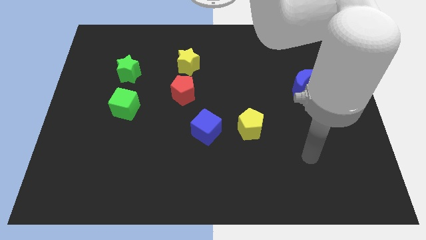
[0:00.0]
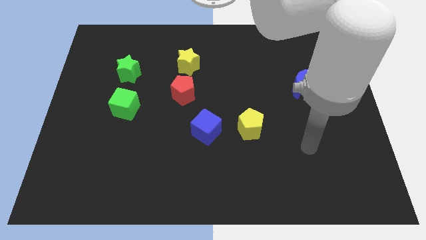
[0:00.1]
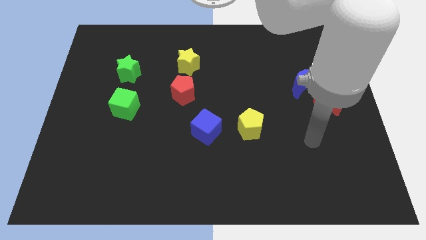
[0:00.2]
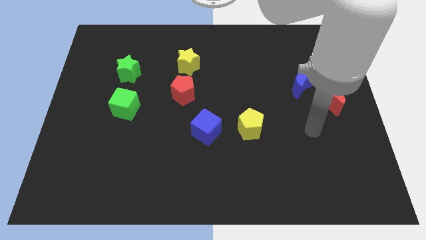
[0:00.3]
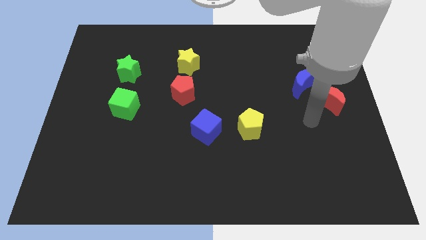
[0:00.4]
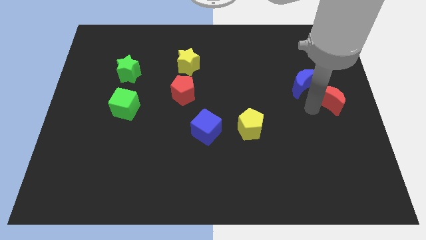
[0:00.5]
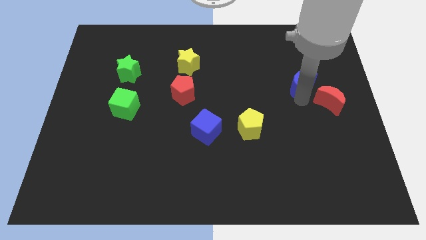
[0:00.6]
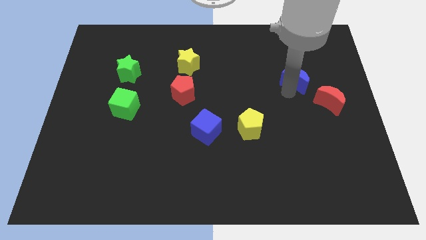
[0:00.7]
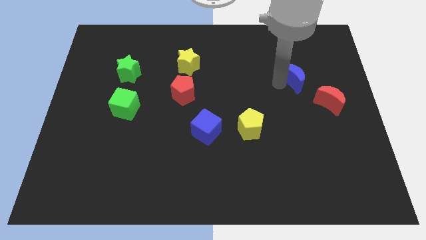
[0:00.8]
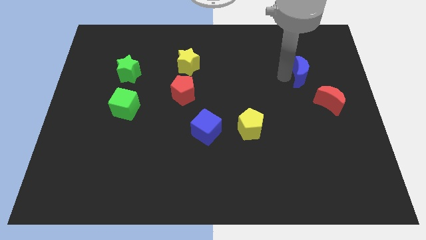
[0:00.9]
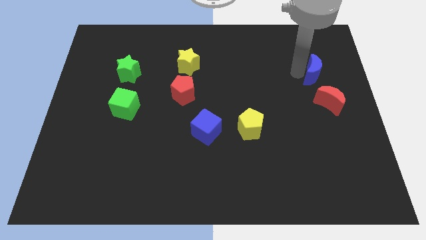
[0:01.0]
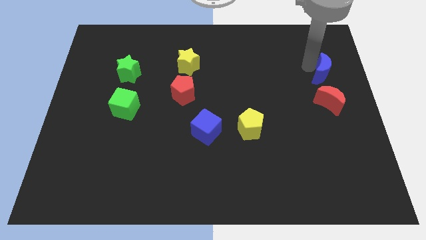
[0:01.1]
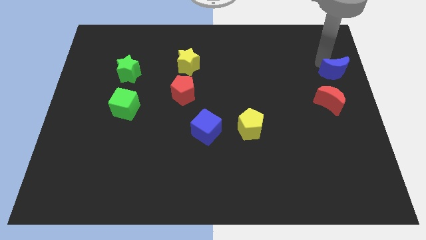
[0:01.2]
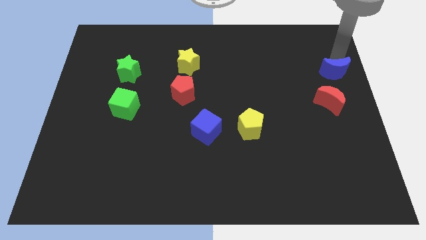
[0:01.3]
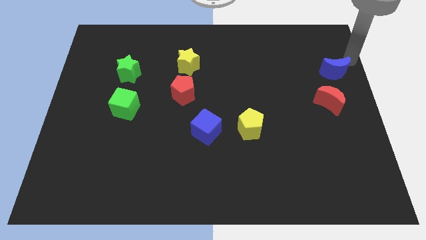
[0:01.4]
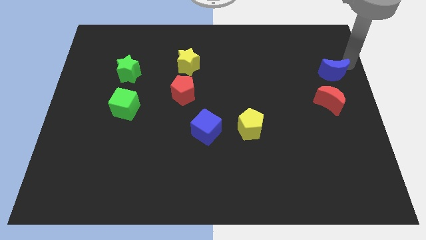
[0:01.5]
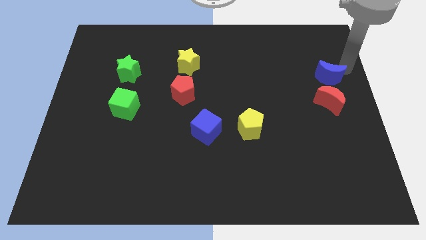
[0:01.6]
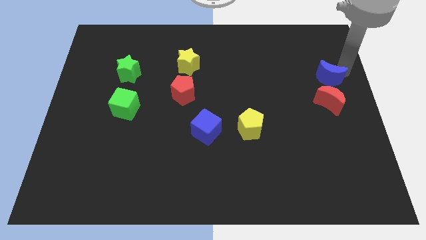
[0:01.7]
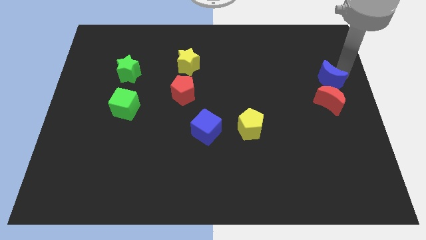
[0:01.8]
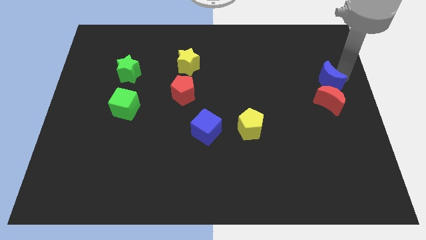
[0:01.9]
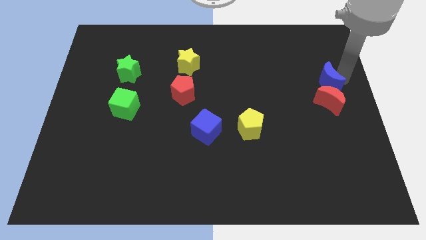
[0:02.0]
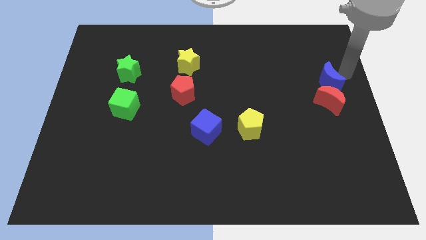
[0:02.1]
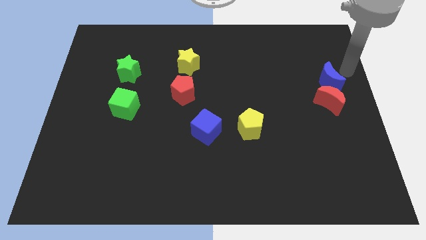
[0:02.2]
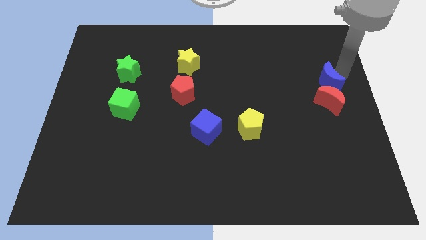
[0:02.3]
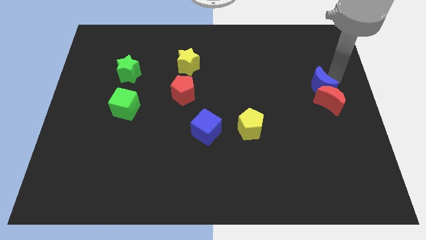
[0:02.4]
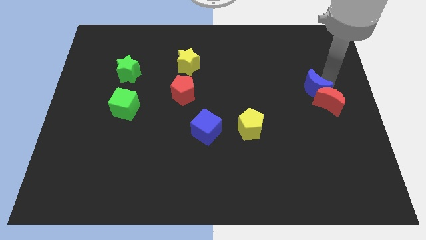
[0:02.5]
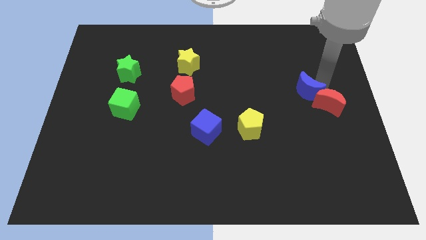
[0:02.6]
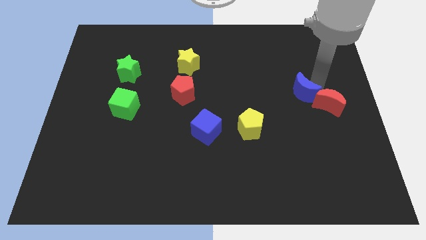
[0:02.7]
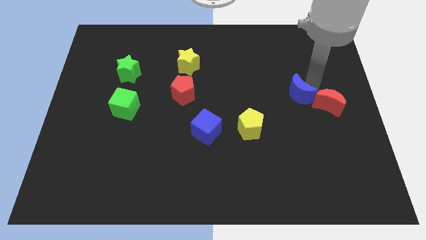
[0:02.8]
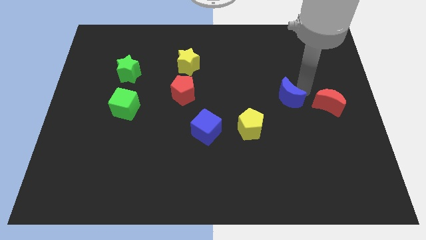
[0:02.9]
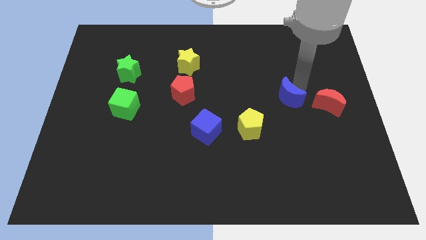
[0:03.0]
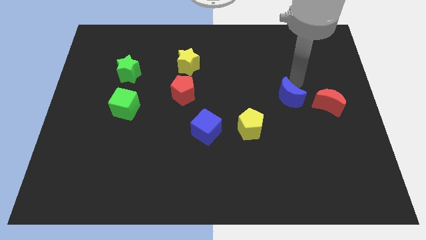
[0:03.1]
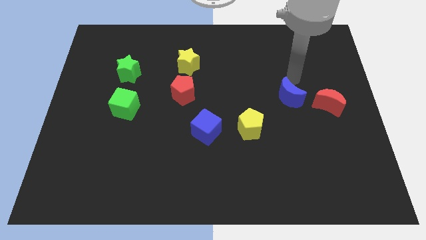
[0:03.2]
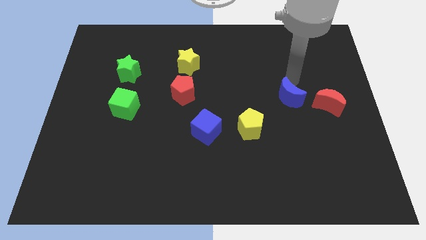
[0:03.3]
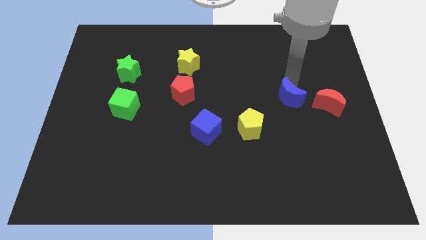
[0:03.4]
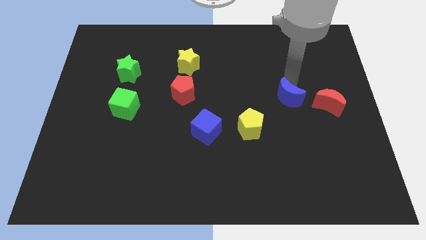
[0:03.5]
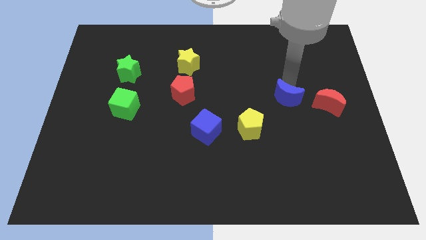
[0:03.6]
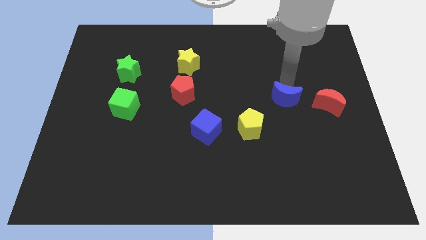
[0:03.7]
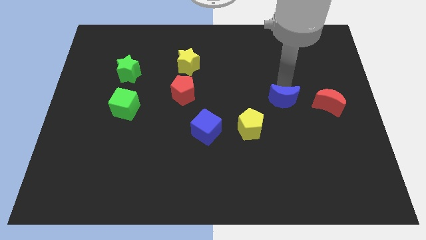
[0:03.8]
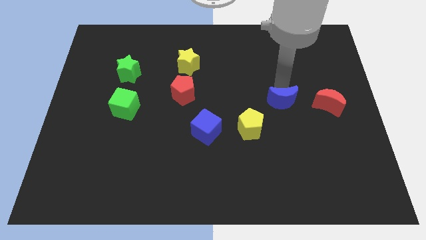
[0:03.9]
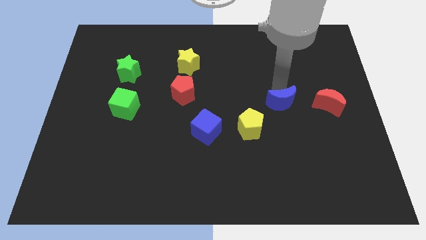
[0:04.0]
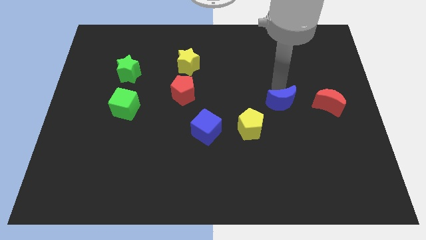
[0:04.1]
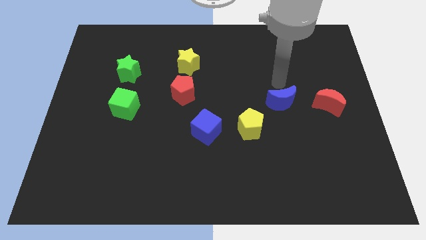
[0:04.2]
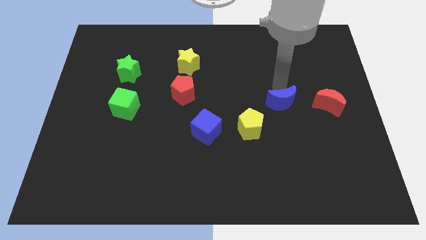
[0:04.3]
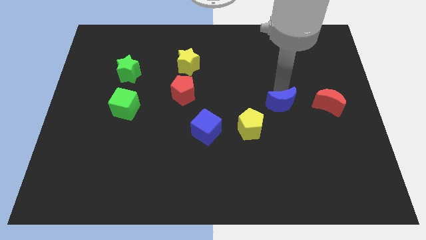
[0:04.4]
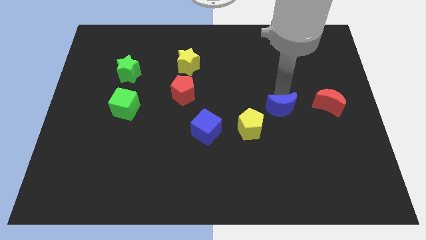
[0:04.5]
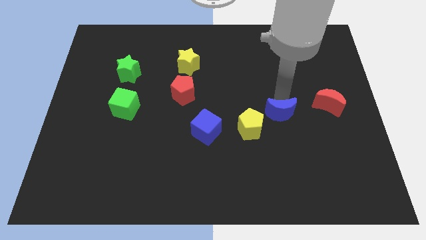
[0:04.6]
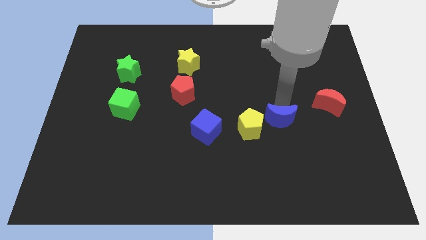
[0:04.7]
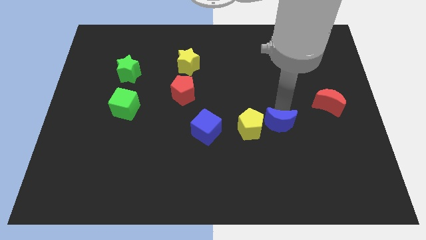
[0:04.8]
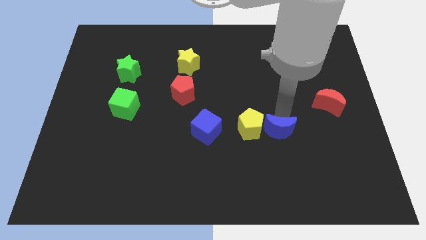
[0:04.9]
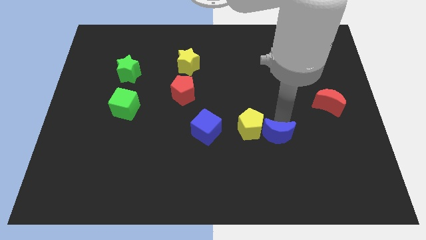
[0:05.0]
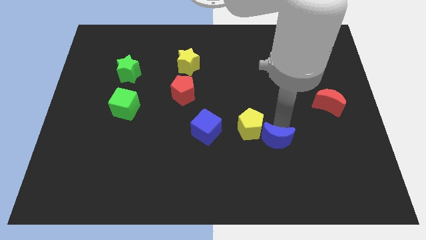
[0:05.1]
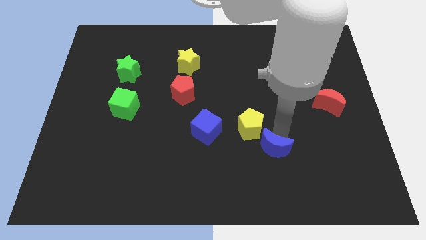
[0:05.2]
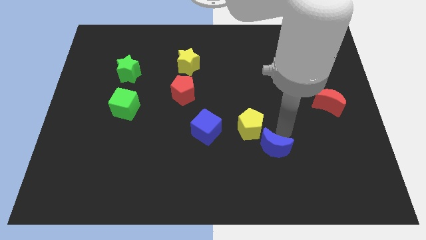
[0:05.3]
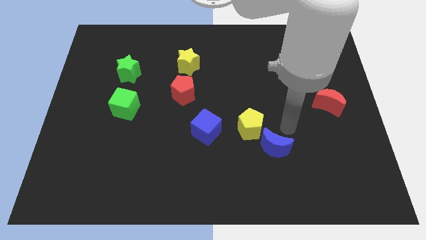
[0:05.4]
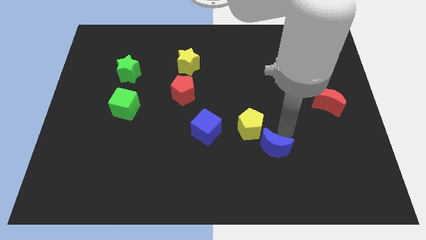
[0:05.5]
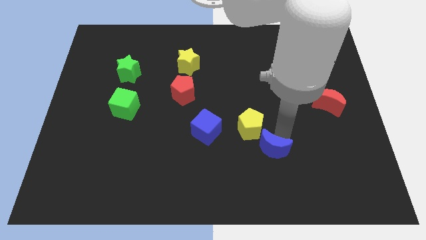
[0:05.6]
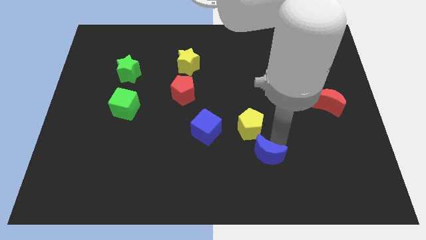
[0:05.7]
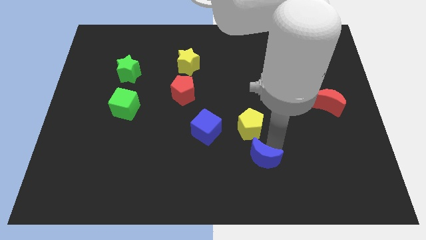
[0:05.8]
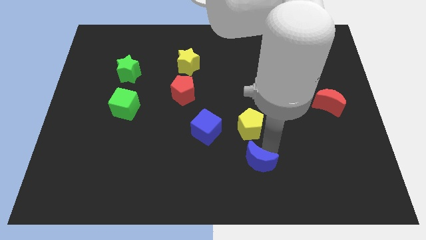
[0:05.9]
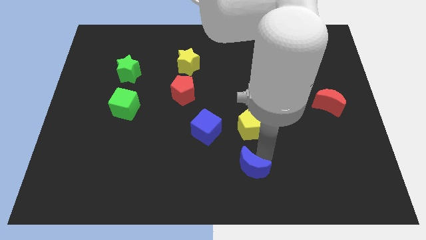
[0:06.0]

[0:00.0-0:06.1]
put the blue moon to the bottom
